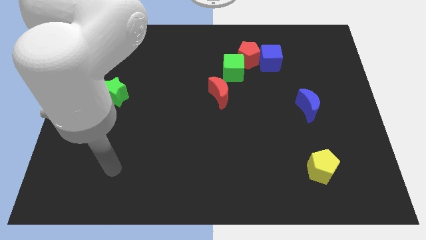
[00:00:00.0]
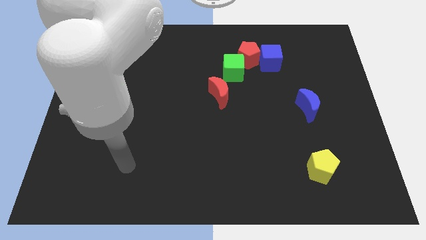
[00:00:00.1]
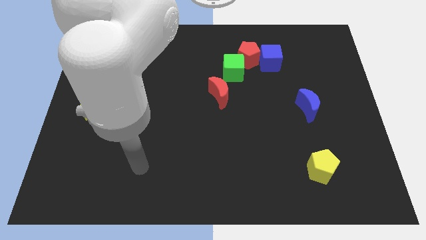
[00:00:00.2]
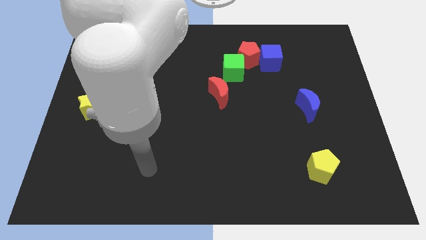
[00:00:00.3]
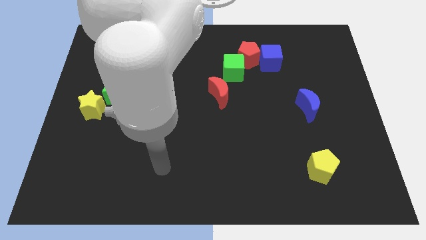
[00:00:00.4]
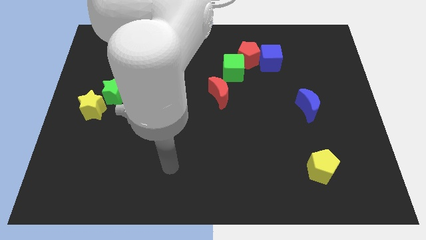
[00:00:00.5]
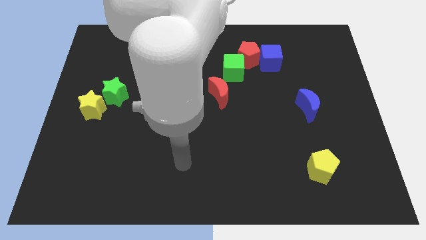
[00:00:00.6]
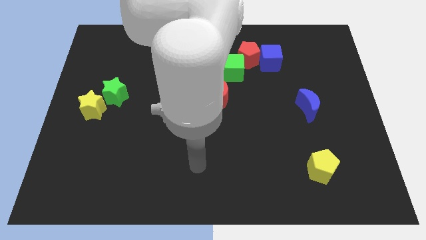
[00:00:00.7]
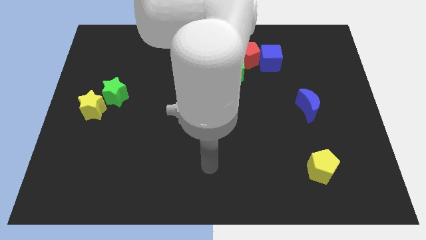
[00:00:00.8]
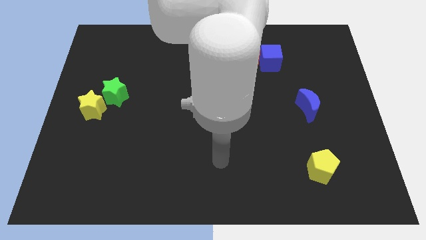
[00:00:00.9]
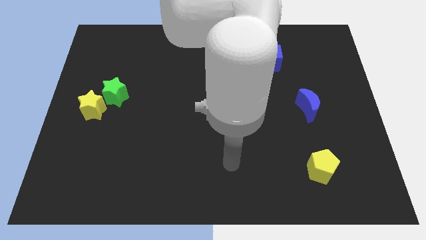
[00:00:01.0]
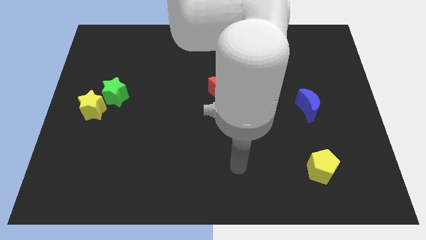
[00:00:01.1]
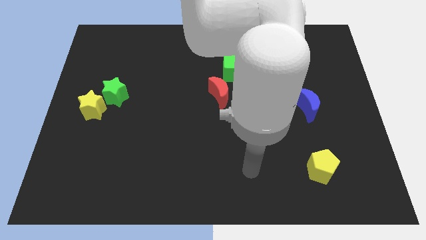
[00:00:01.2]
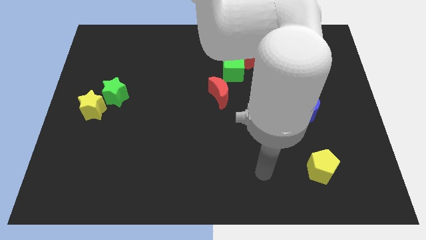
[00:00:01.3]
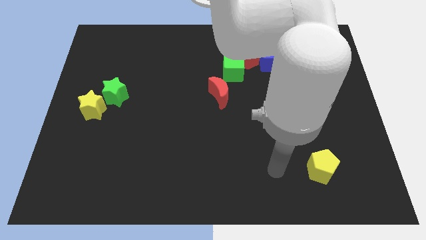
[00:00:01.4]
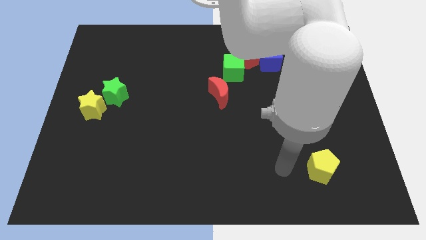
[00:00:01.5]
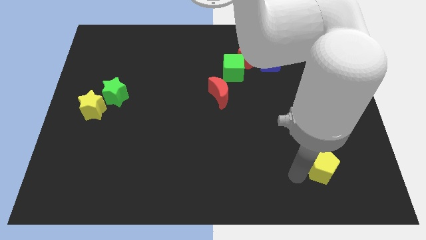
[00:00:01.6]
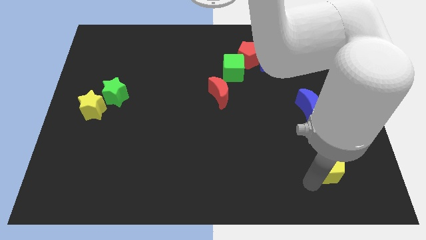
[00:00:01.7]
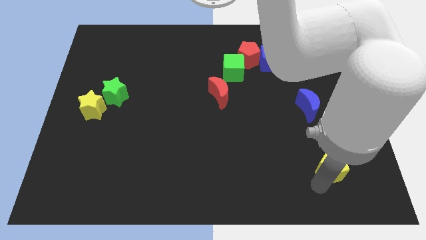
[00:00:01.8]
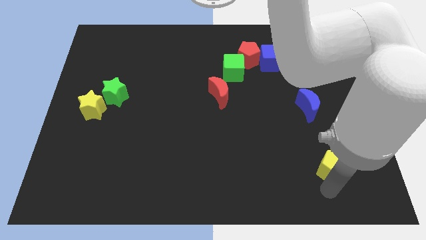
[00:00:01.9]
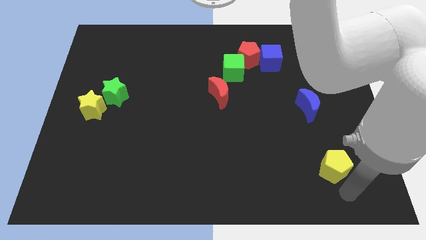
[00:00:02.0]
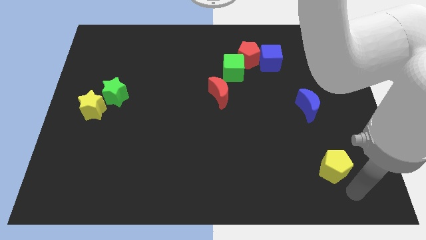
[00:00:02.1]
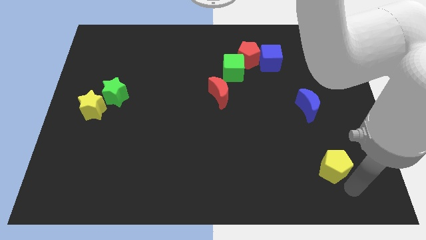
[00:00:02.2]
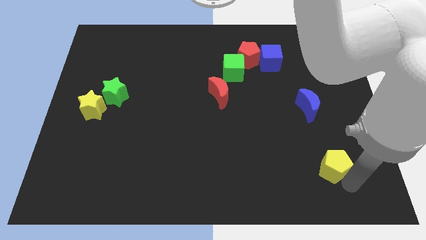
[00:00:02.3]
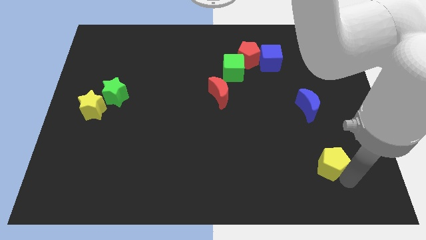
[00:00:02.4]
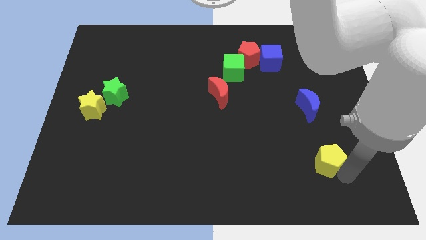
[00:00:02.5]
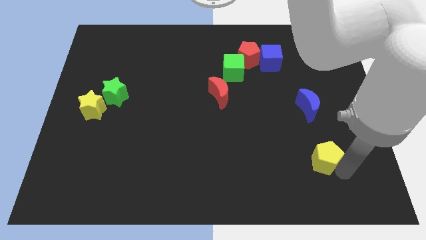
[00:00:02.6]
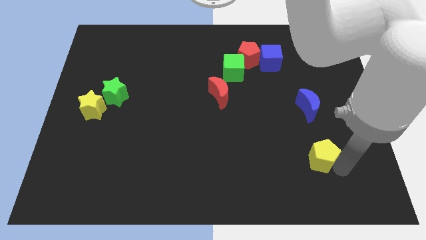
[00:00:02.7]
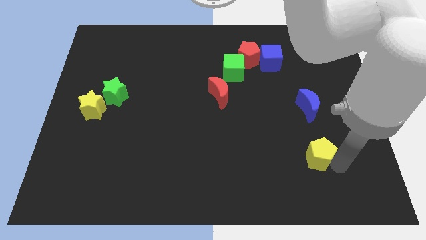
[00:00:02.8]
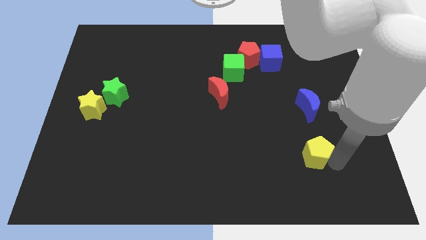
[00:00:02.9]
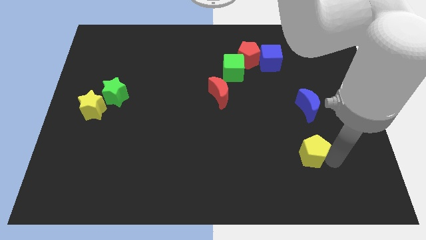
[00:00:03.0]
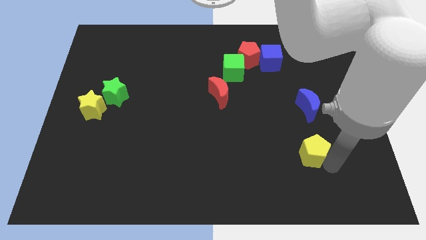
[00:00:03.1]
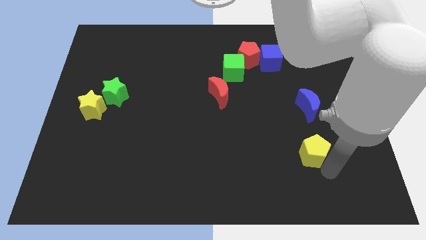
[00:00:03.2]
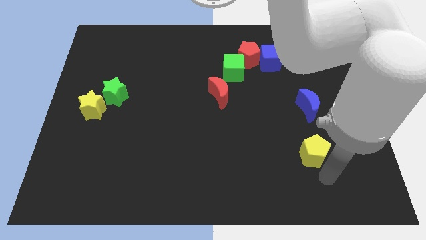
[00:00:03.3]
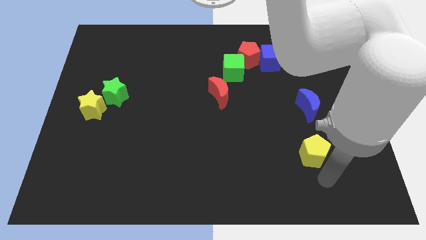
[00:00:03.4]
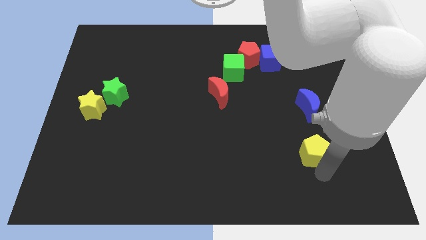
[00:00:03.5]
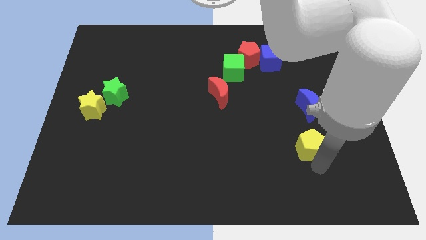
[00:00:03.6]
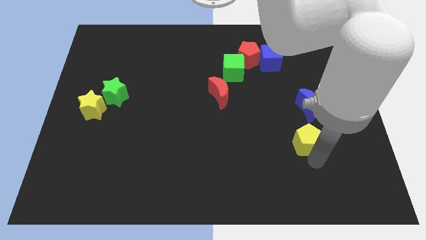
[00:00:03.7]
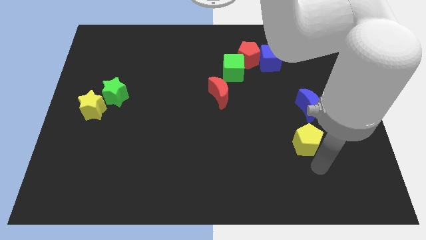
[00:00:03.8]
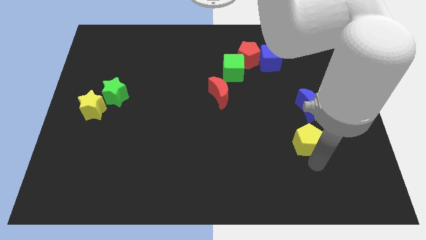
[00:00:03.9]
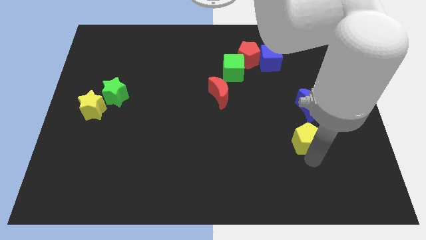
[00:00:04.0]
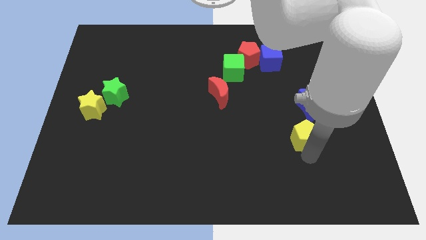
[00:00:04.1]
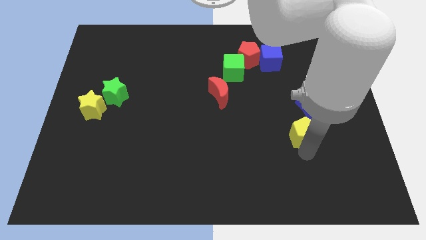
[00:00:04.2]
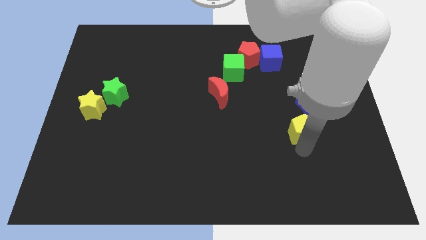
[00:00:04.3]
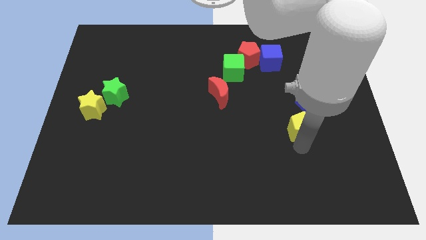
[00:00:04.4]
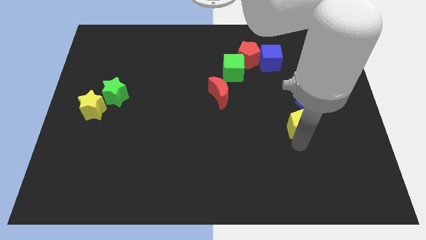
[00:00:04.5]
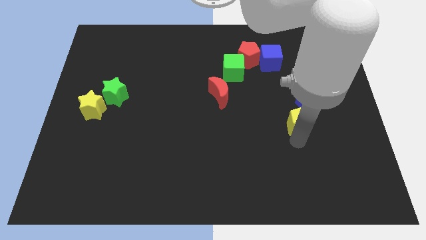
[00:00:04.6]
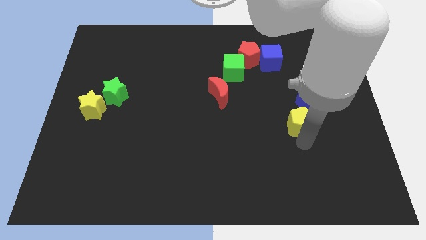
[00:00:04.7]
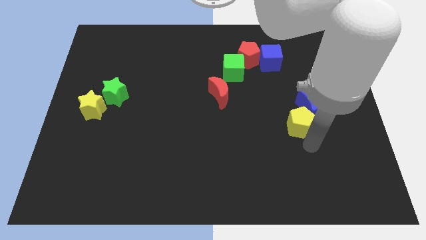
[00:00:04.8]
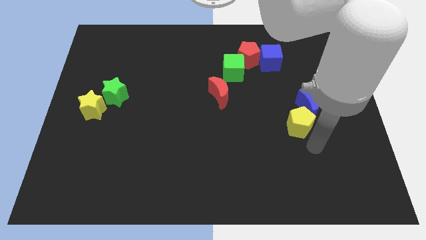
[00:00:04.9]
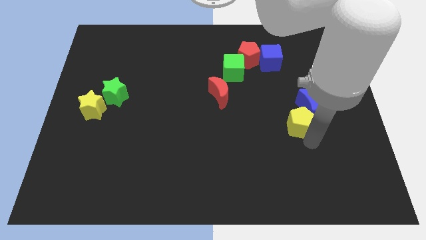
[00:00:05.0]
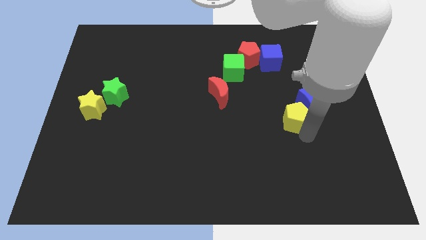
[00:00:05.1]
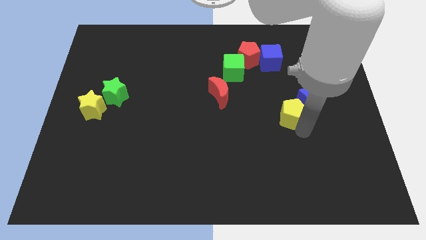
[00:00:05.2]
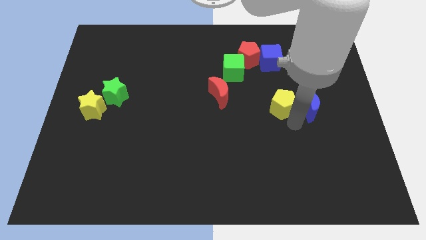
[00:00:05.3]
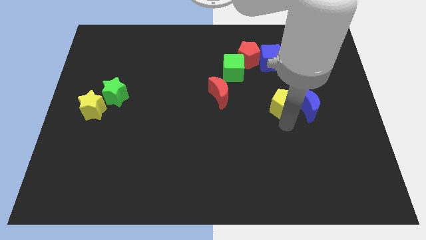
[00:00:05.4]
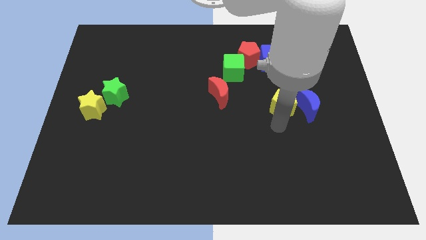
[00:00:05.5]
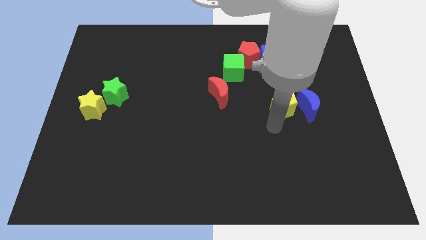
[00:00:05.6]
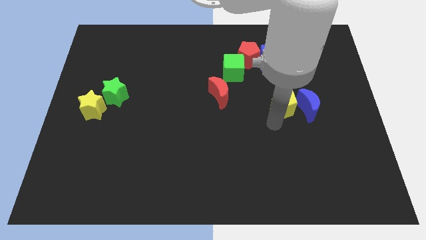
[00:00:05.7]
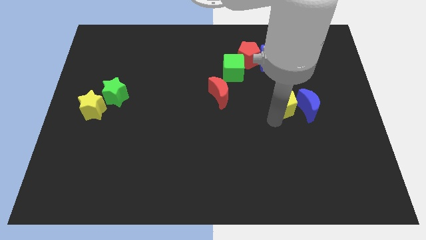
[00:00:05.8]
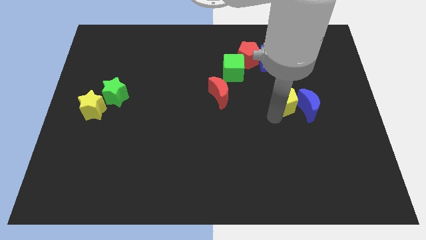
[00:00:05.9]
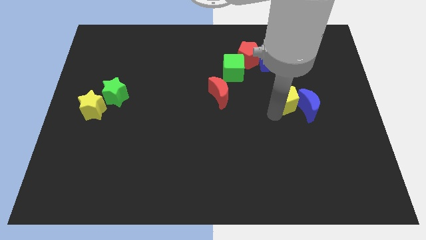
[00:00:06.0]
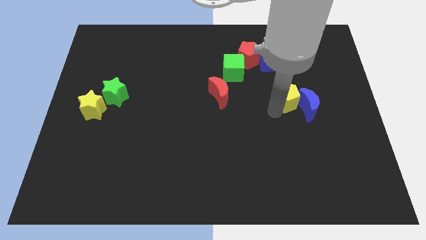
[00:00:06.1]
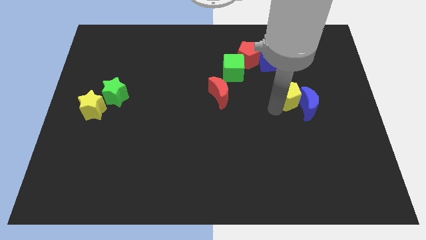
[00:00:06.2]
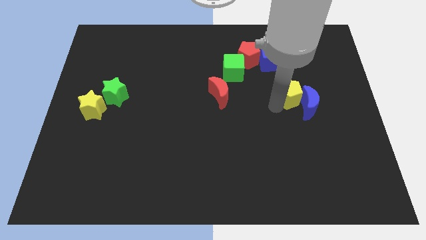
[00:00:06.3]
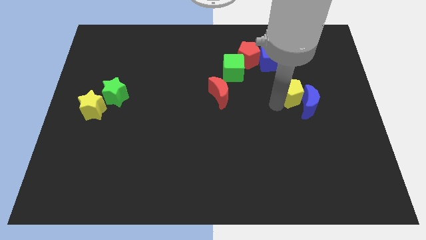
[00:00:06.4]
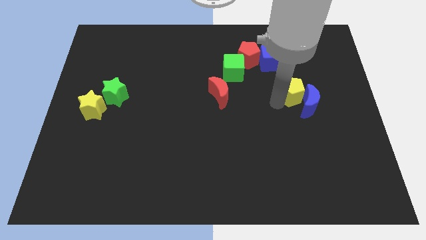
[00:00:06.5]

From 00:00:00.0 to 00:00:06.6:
push the yellow pentagon up

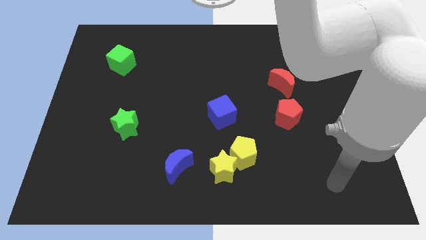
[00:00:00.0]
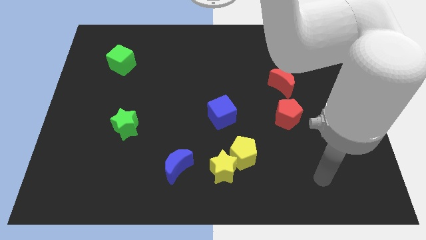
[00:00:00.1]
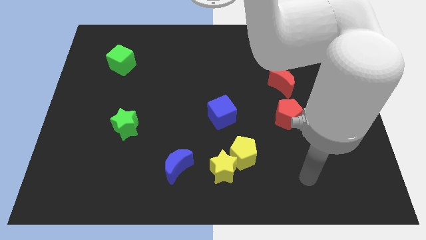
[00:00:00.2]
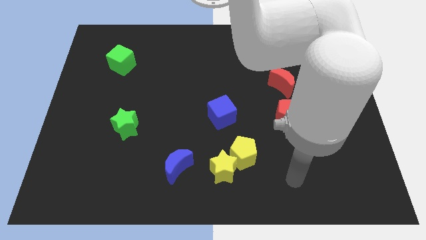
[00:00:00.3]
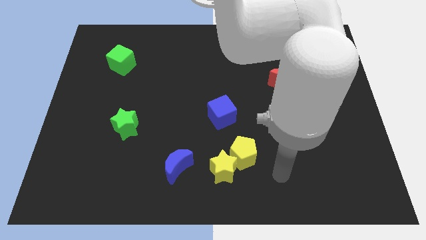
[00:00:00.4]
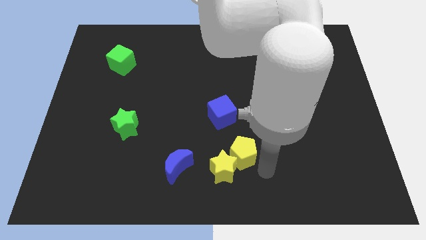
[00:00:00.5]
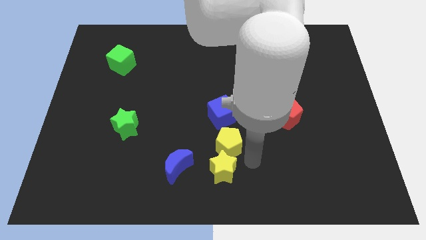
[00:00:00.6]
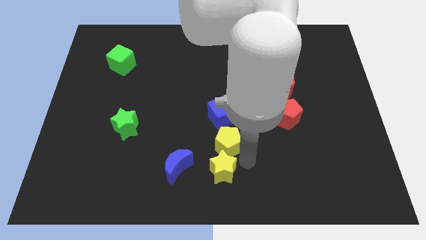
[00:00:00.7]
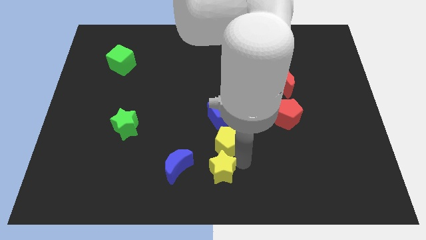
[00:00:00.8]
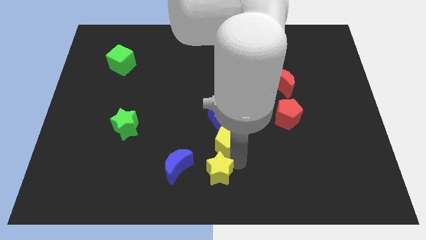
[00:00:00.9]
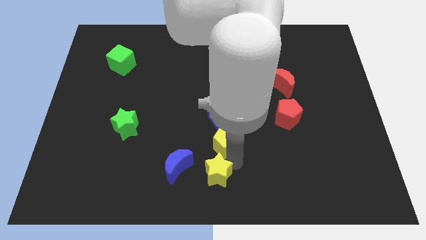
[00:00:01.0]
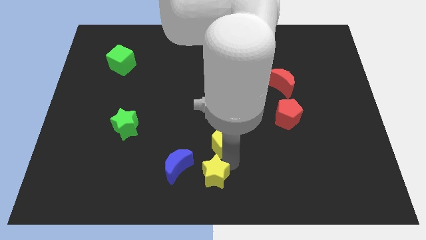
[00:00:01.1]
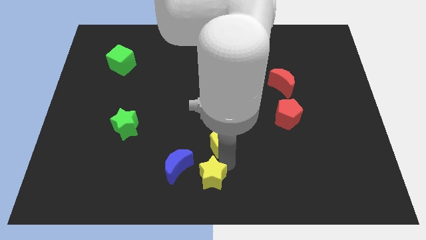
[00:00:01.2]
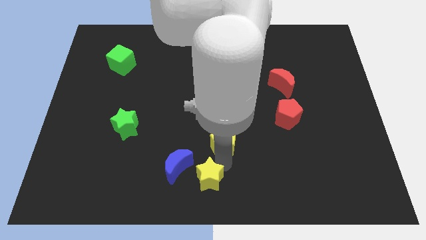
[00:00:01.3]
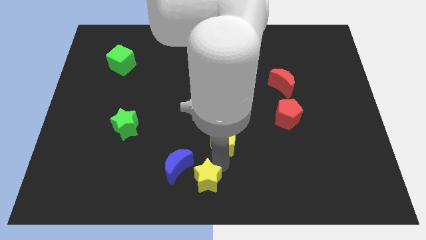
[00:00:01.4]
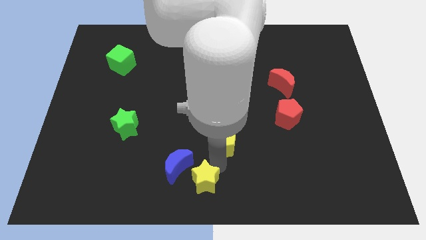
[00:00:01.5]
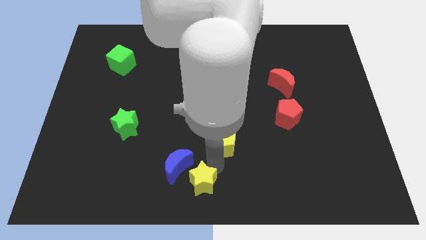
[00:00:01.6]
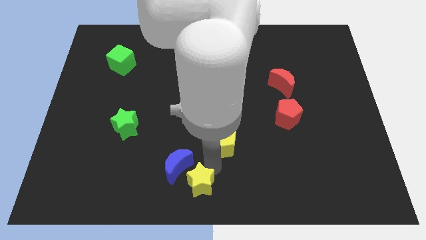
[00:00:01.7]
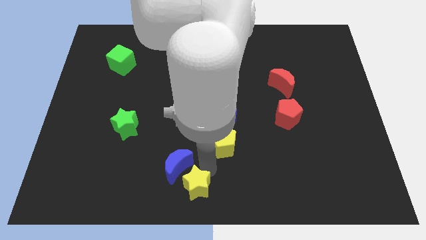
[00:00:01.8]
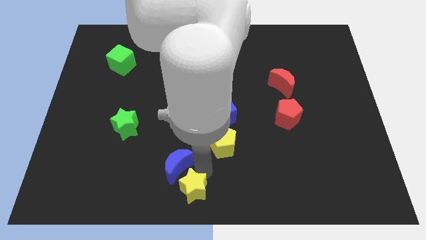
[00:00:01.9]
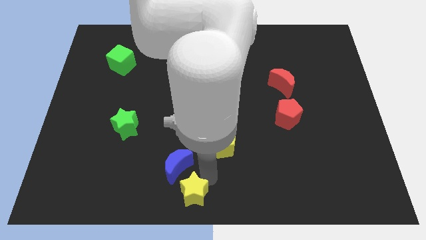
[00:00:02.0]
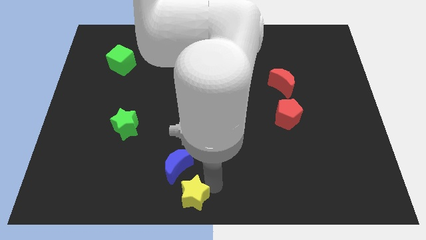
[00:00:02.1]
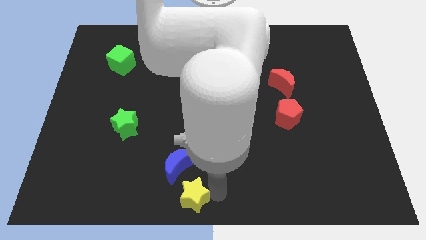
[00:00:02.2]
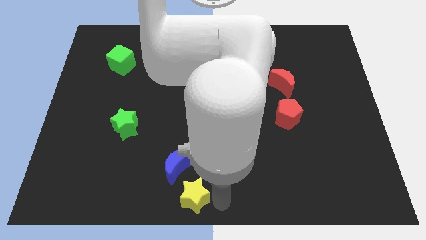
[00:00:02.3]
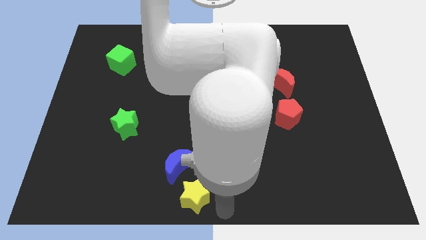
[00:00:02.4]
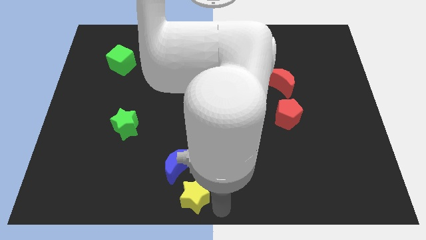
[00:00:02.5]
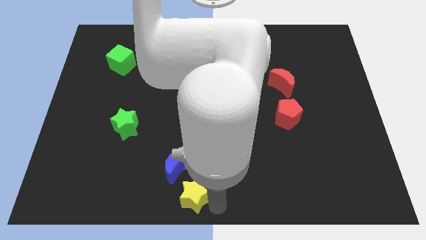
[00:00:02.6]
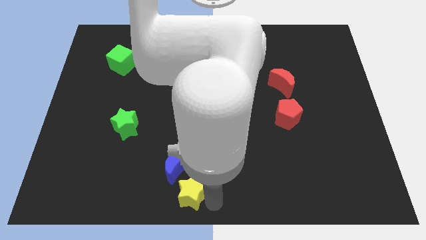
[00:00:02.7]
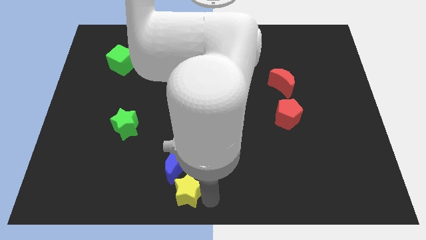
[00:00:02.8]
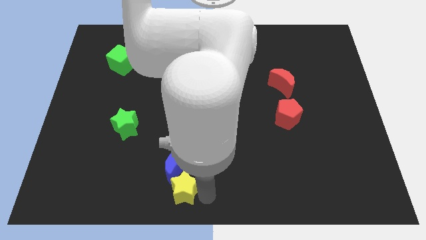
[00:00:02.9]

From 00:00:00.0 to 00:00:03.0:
slightly slide the yellow star left
